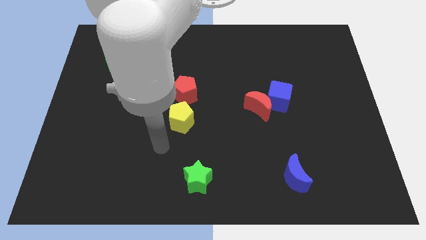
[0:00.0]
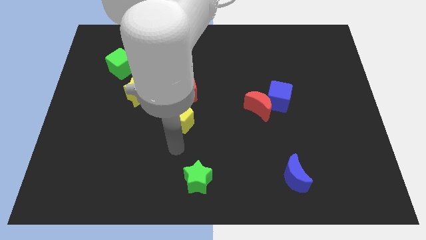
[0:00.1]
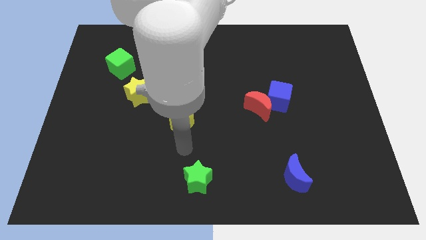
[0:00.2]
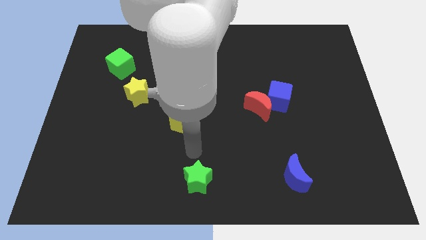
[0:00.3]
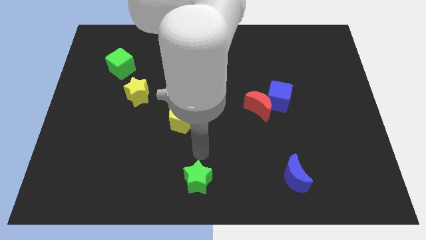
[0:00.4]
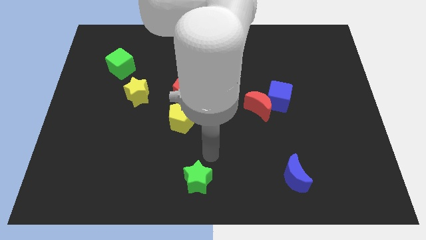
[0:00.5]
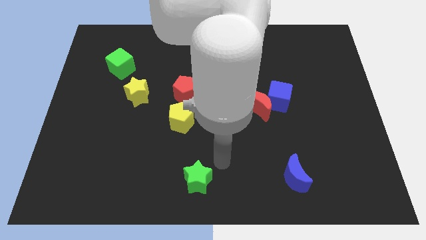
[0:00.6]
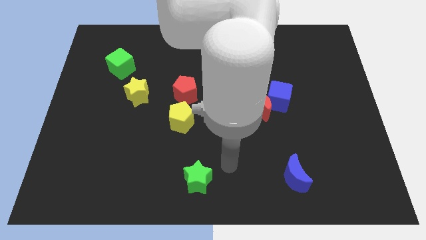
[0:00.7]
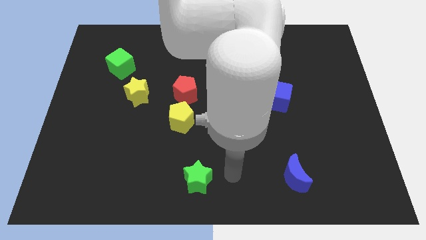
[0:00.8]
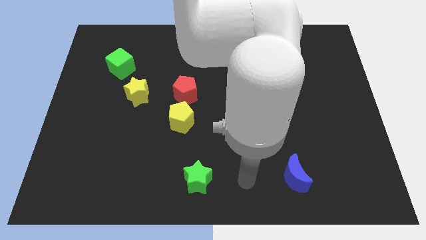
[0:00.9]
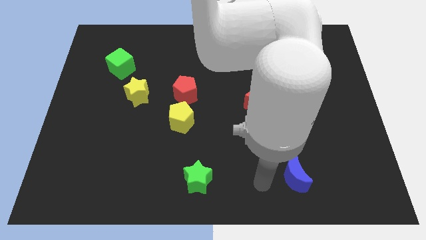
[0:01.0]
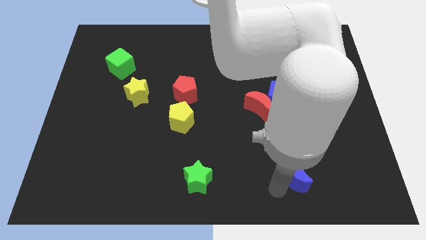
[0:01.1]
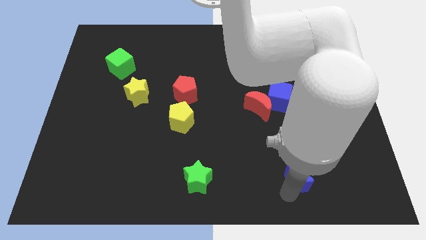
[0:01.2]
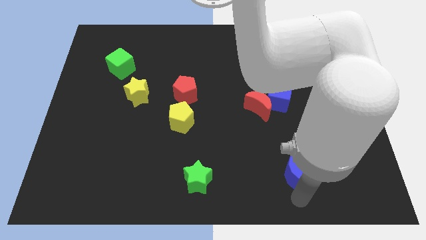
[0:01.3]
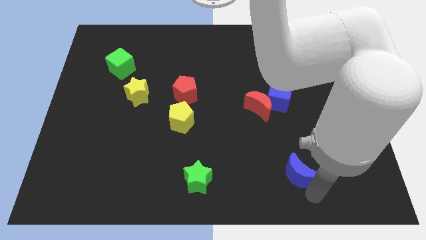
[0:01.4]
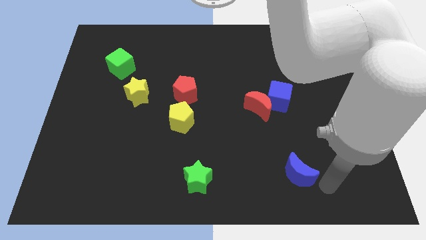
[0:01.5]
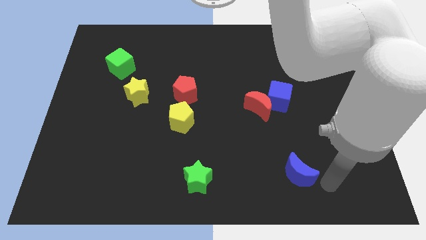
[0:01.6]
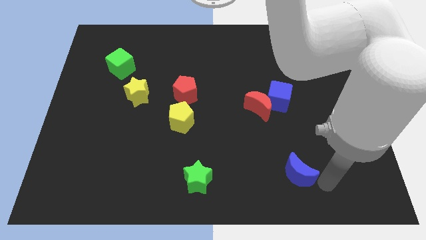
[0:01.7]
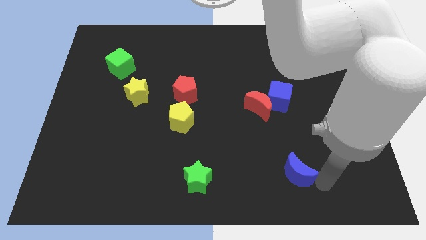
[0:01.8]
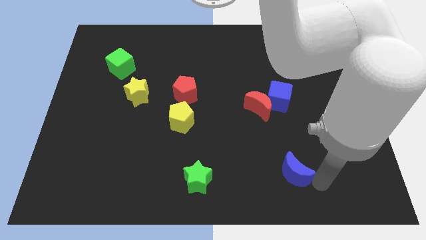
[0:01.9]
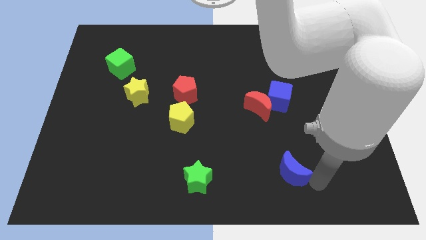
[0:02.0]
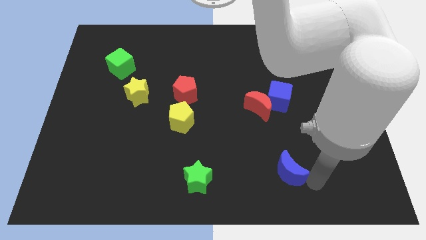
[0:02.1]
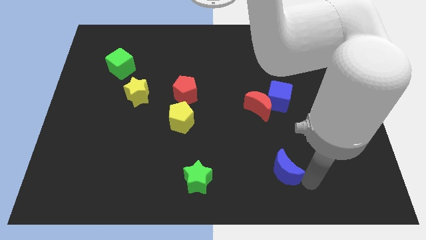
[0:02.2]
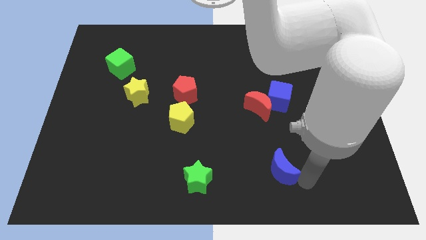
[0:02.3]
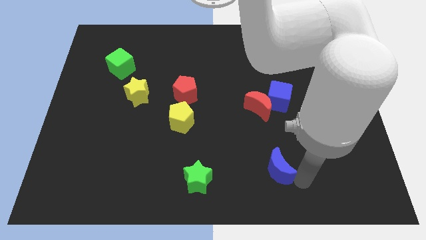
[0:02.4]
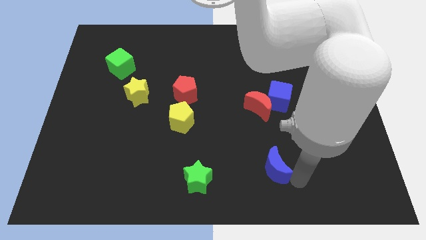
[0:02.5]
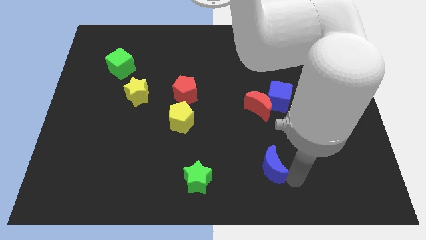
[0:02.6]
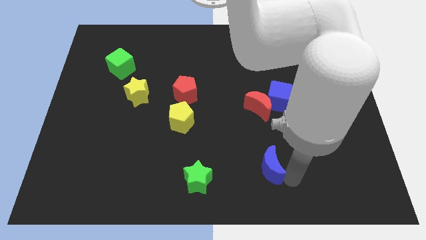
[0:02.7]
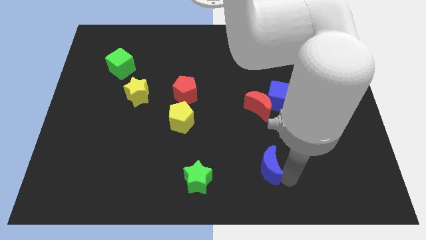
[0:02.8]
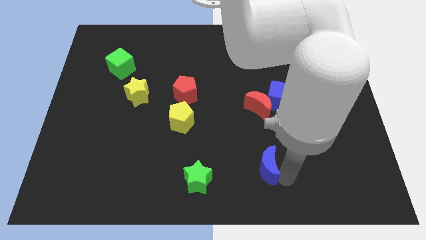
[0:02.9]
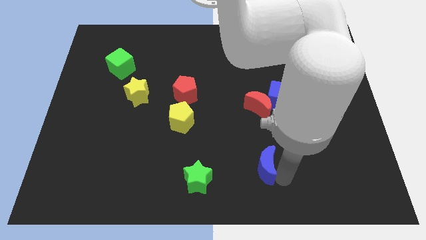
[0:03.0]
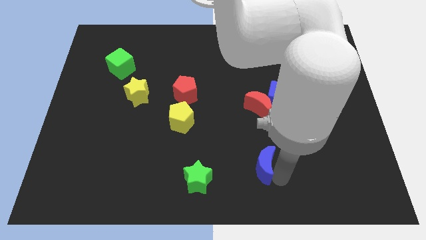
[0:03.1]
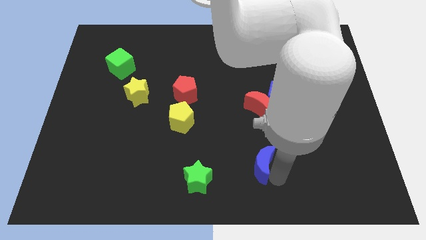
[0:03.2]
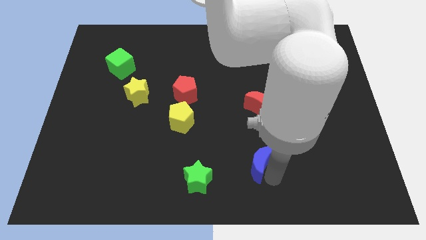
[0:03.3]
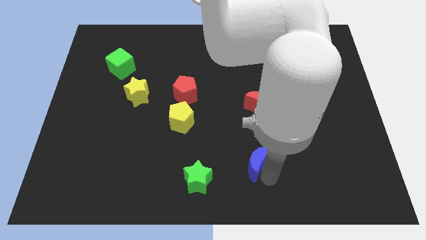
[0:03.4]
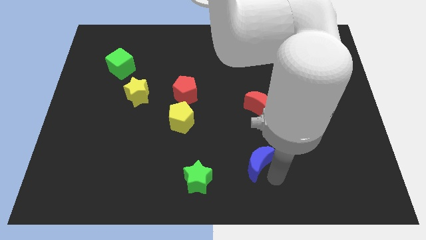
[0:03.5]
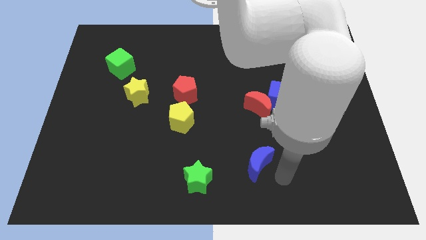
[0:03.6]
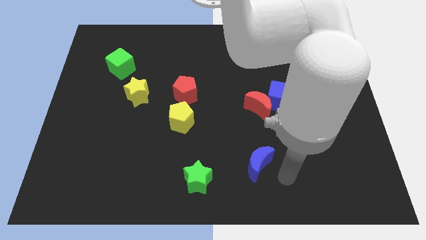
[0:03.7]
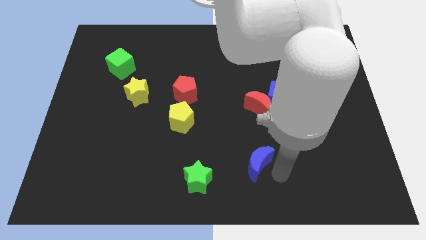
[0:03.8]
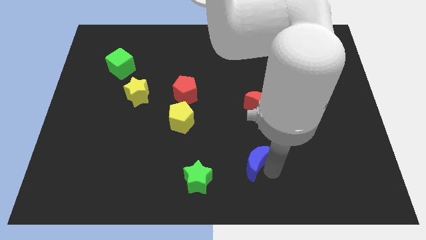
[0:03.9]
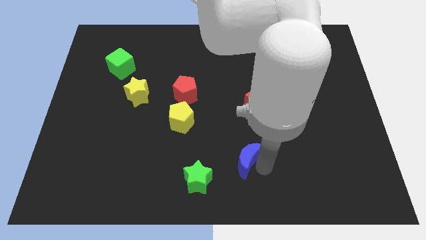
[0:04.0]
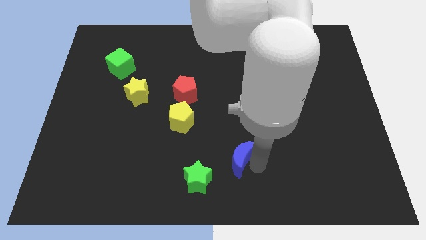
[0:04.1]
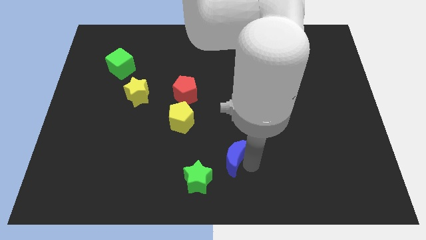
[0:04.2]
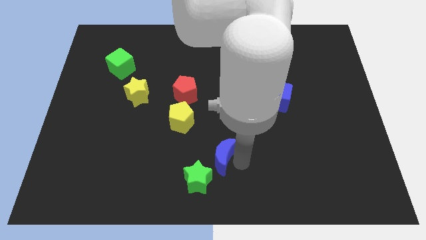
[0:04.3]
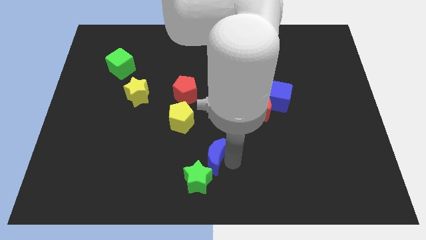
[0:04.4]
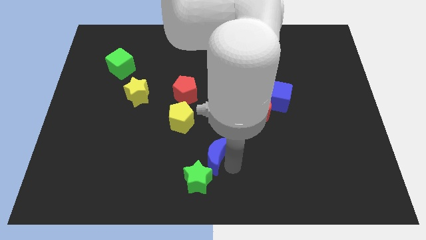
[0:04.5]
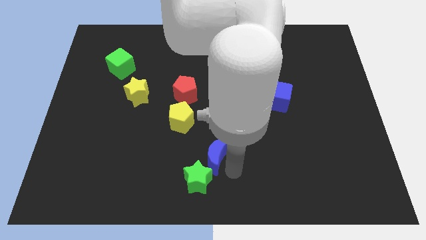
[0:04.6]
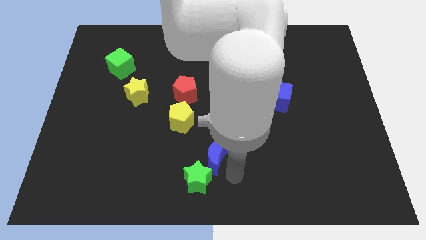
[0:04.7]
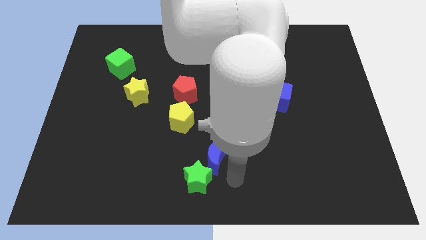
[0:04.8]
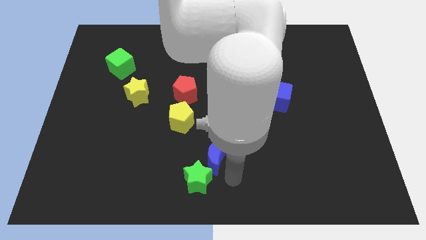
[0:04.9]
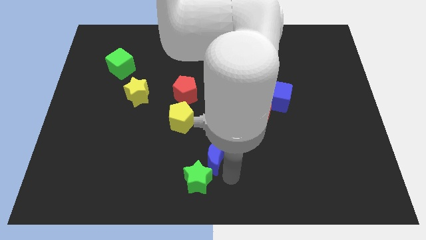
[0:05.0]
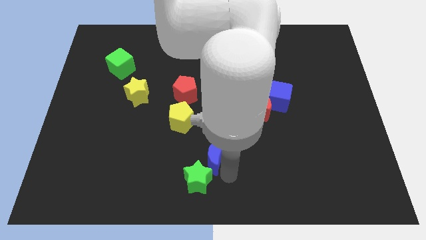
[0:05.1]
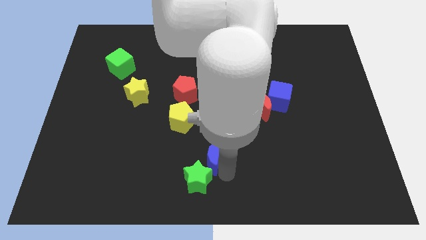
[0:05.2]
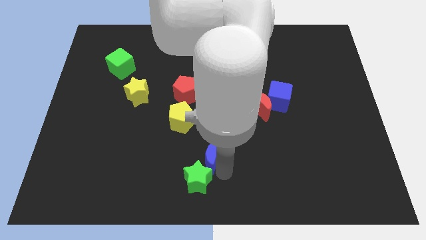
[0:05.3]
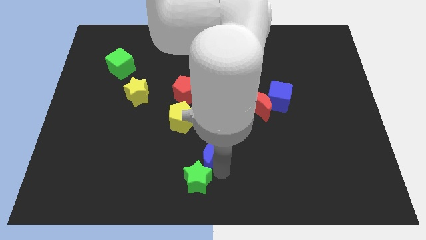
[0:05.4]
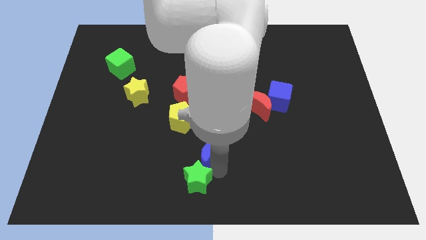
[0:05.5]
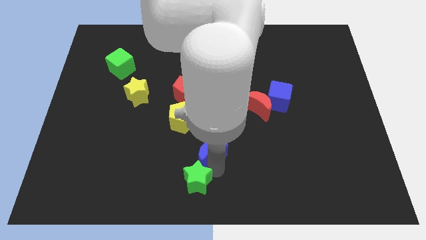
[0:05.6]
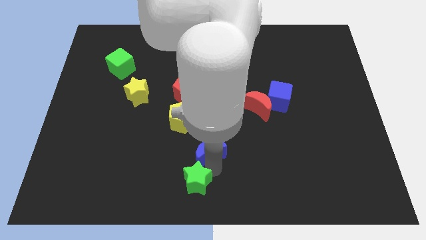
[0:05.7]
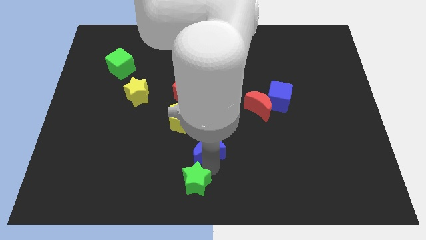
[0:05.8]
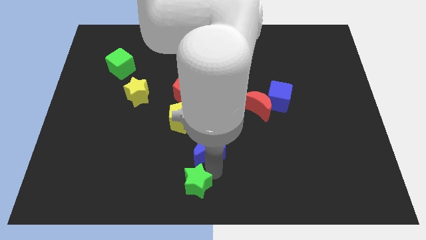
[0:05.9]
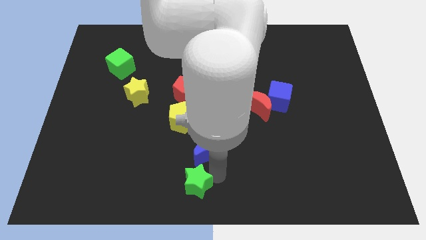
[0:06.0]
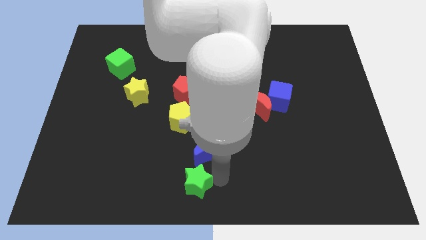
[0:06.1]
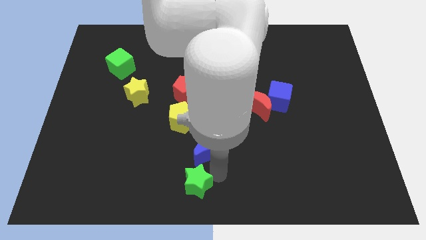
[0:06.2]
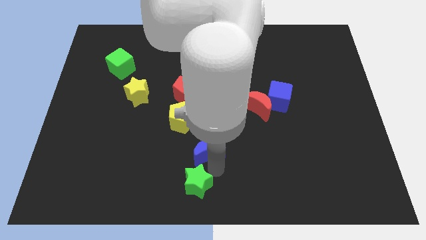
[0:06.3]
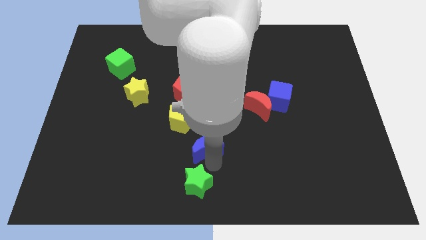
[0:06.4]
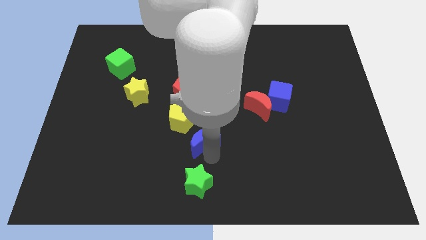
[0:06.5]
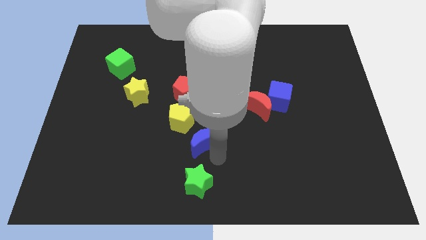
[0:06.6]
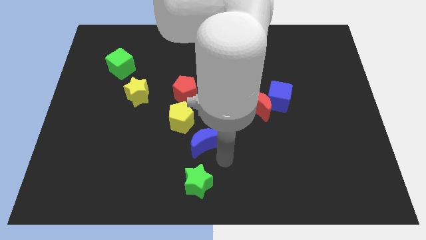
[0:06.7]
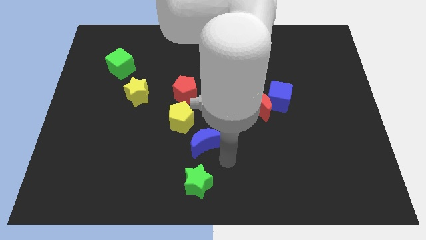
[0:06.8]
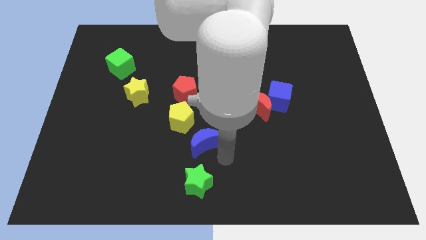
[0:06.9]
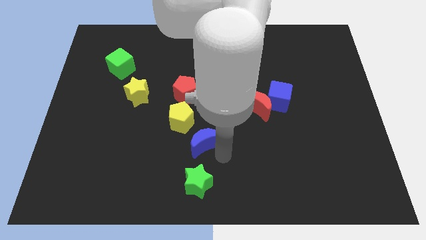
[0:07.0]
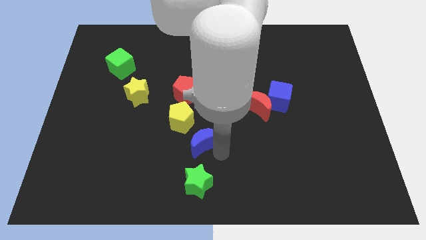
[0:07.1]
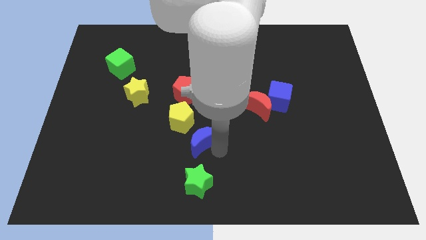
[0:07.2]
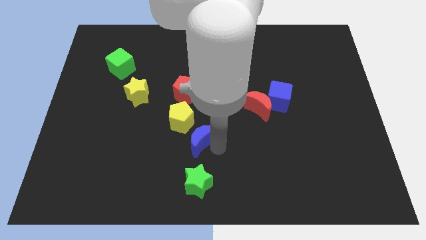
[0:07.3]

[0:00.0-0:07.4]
slide the blue moon to the bottom of the red pentagon
